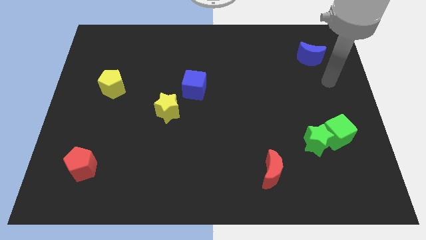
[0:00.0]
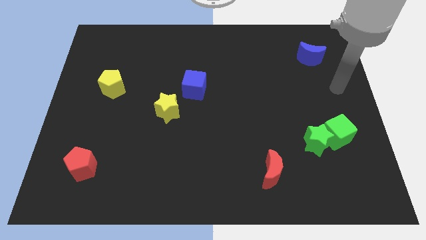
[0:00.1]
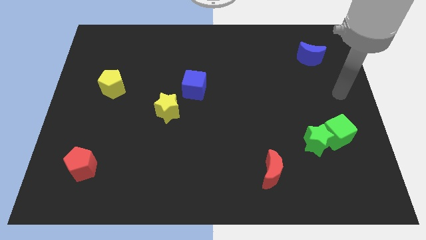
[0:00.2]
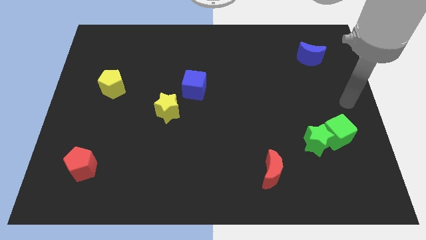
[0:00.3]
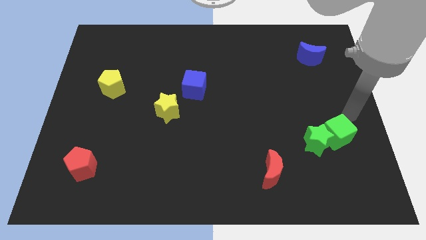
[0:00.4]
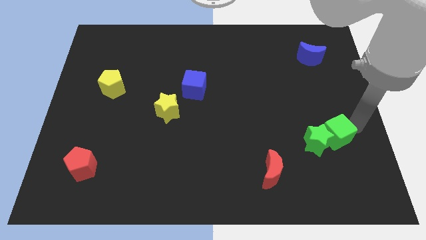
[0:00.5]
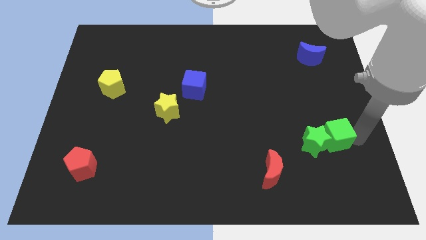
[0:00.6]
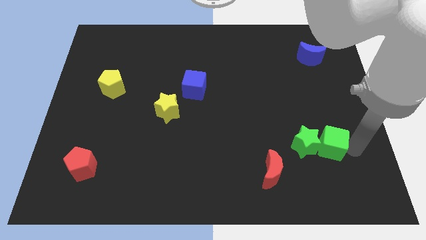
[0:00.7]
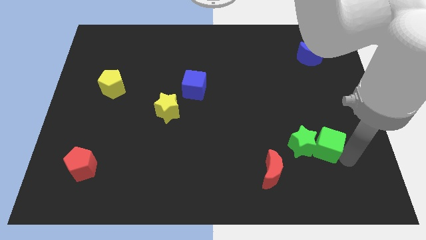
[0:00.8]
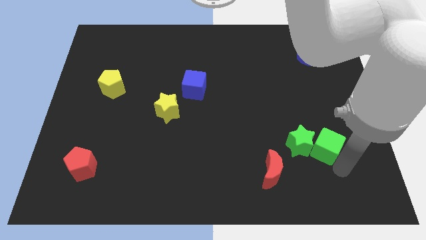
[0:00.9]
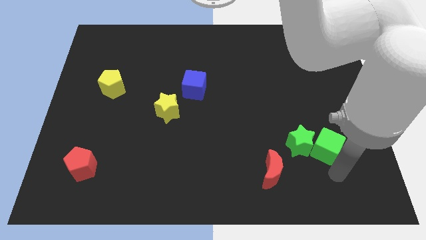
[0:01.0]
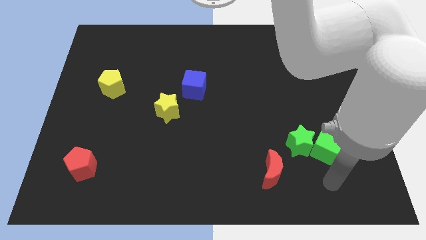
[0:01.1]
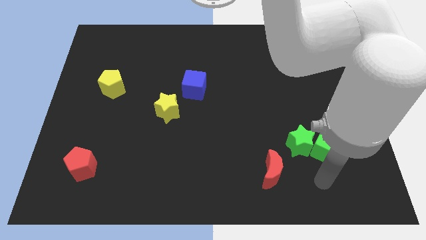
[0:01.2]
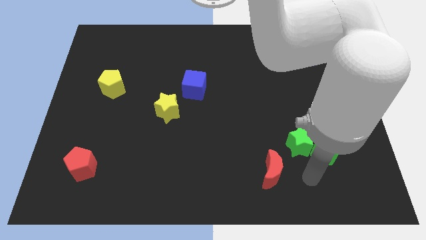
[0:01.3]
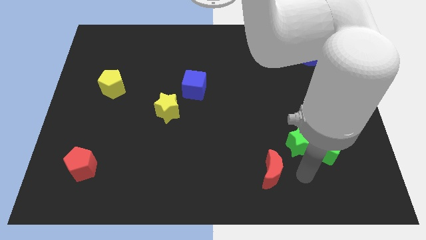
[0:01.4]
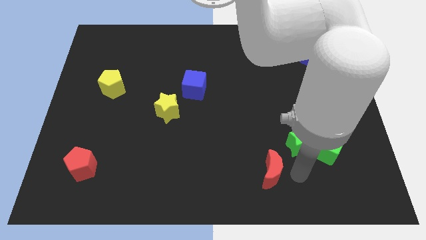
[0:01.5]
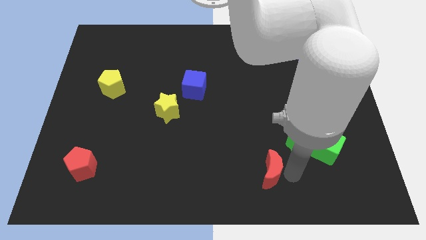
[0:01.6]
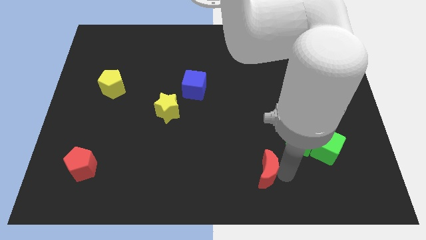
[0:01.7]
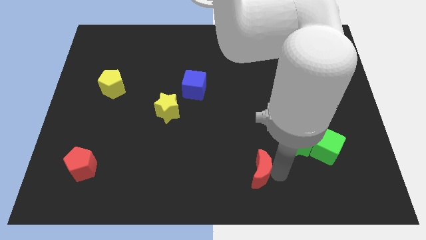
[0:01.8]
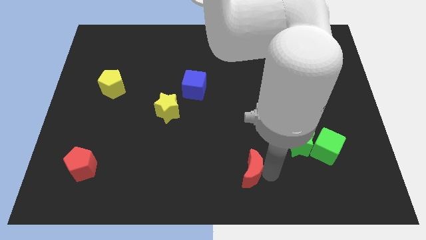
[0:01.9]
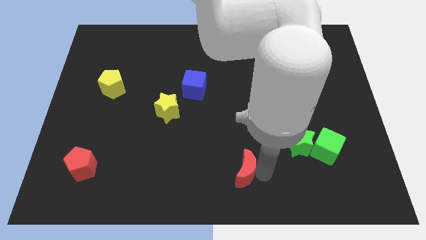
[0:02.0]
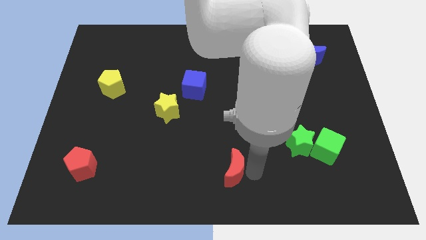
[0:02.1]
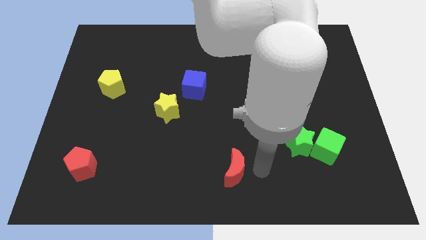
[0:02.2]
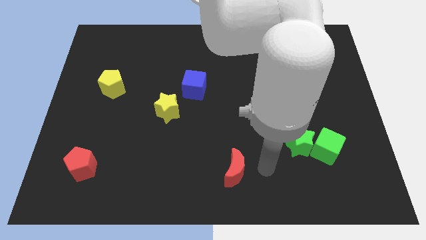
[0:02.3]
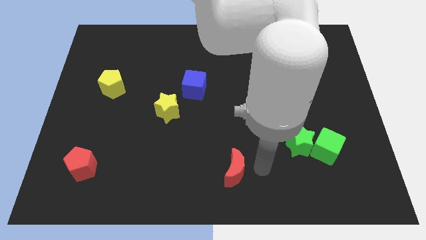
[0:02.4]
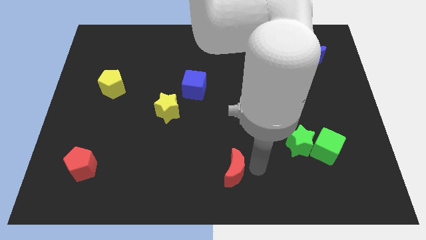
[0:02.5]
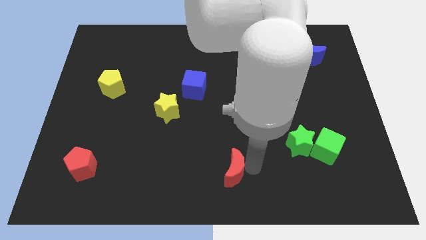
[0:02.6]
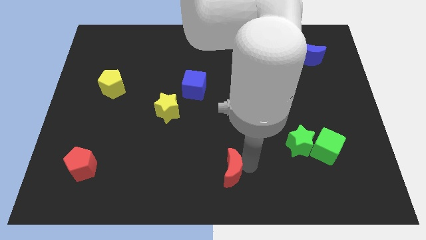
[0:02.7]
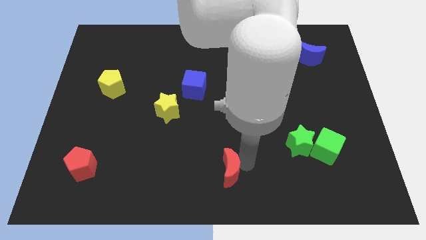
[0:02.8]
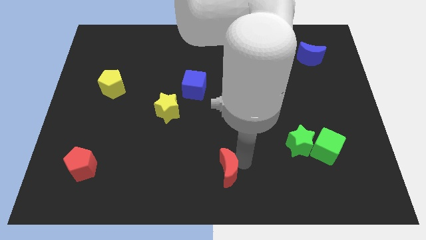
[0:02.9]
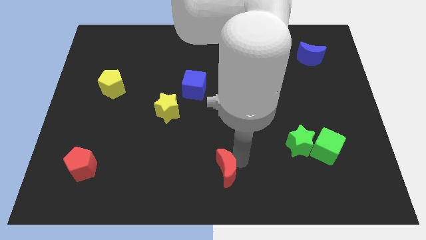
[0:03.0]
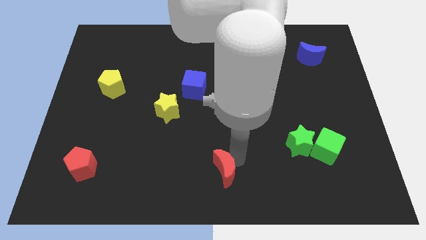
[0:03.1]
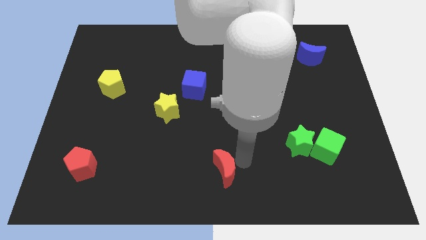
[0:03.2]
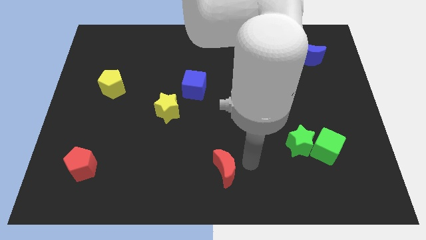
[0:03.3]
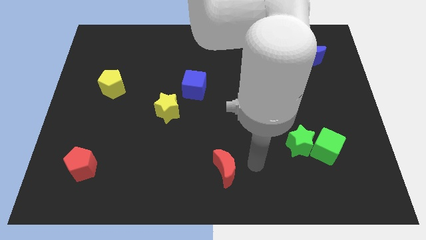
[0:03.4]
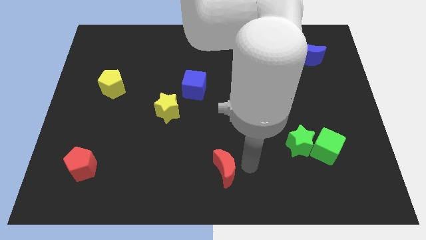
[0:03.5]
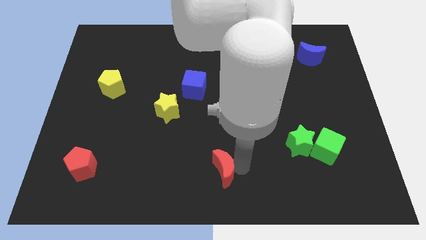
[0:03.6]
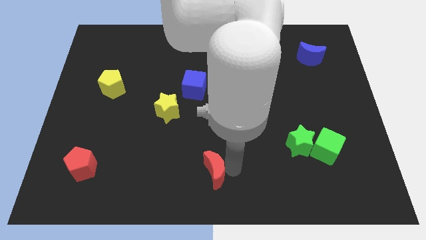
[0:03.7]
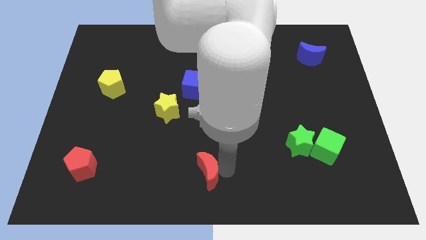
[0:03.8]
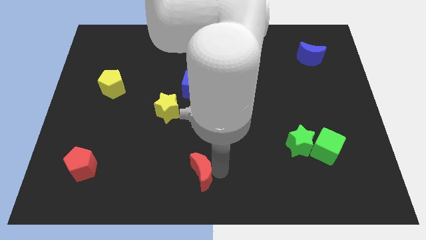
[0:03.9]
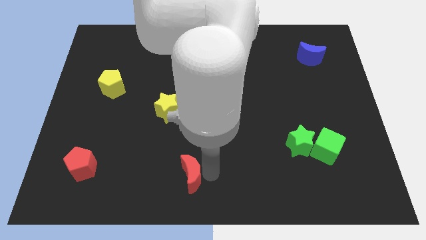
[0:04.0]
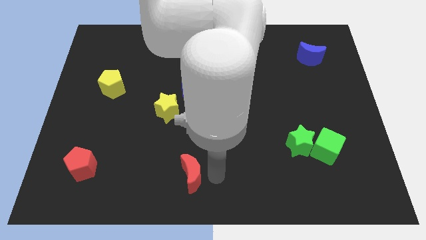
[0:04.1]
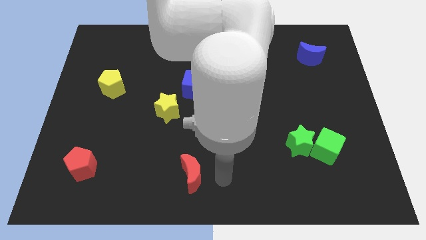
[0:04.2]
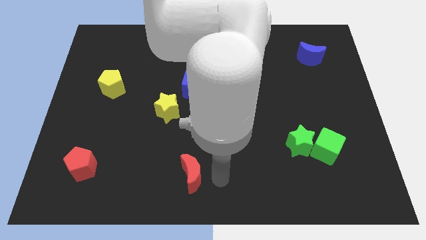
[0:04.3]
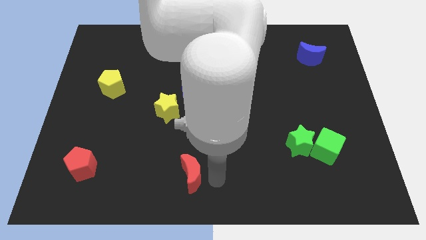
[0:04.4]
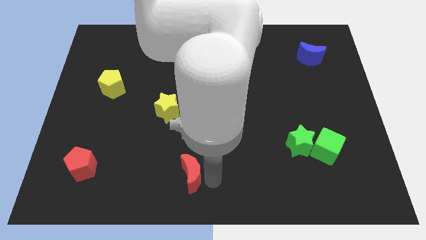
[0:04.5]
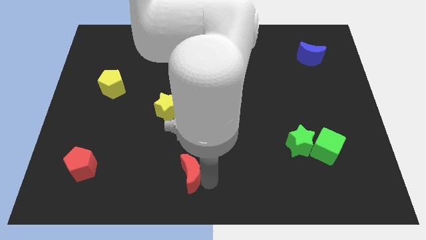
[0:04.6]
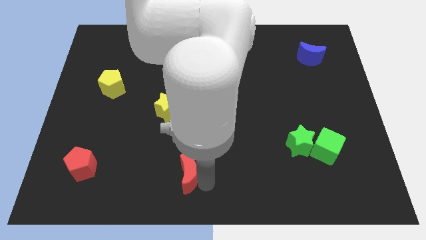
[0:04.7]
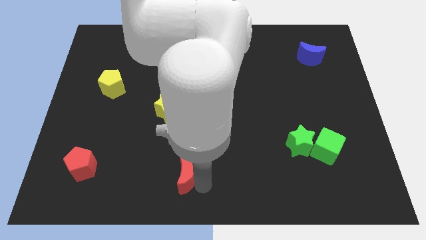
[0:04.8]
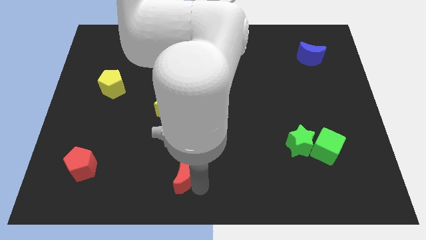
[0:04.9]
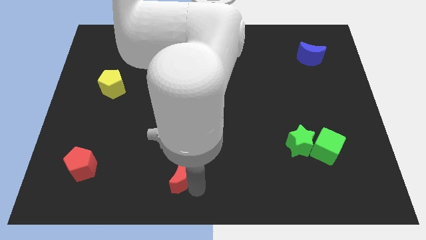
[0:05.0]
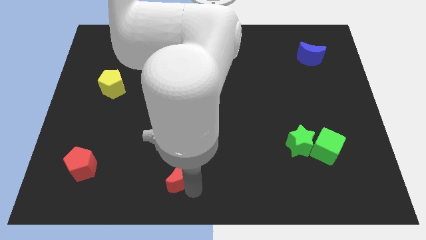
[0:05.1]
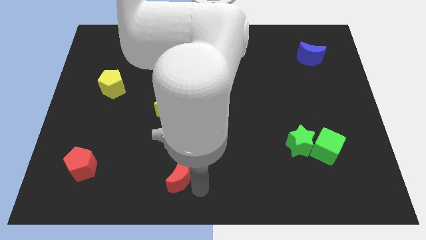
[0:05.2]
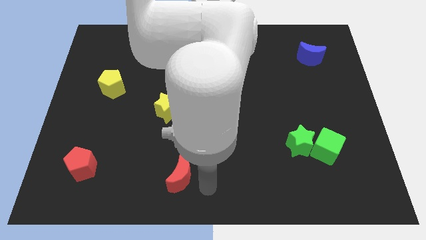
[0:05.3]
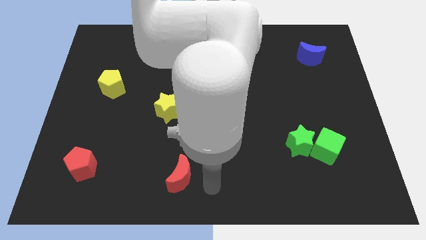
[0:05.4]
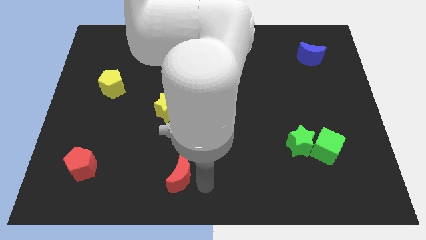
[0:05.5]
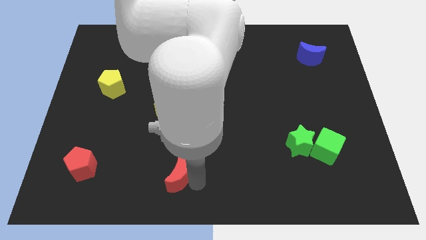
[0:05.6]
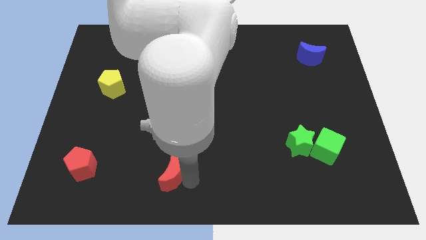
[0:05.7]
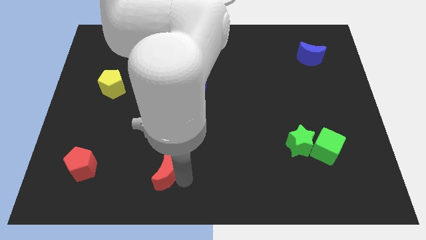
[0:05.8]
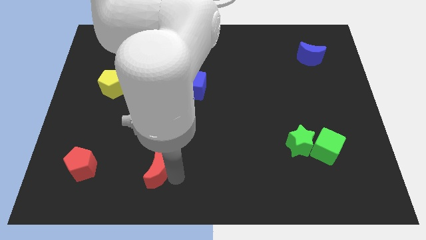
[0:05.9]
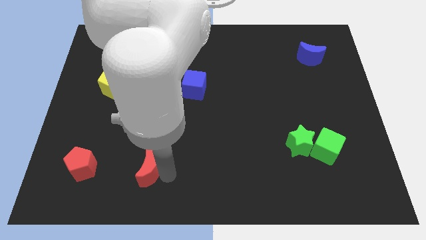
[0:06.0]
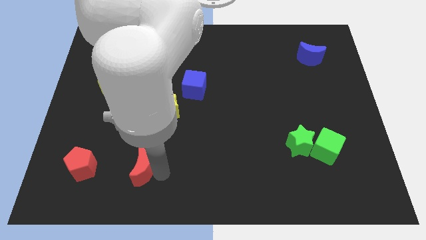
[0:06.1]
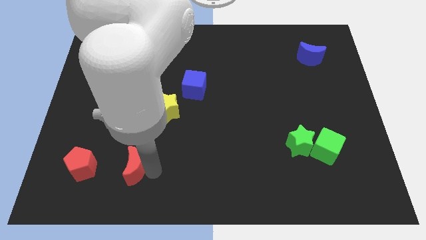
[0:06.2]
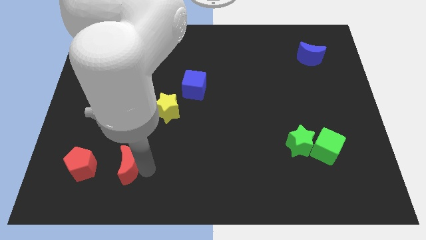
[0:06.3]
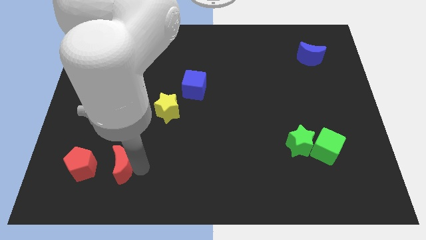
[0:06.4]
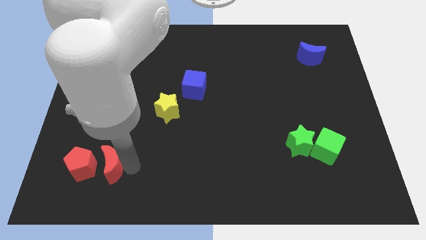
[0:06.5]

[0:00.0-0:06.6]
move the red moon towards the red pentagon

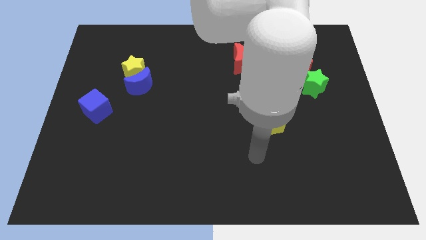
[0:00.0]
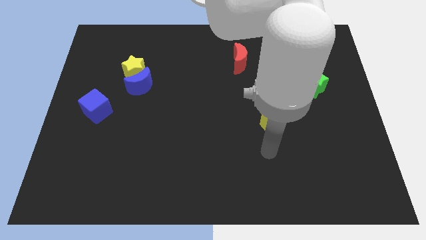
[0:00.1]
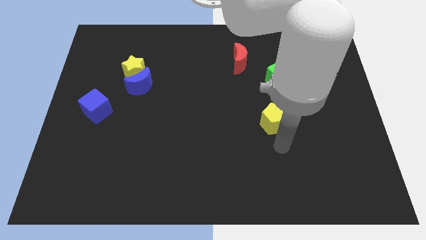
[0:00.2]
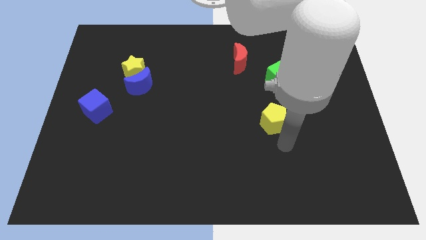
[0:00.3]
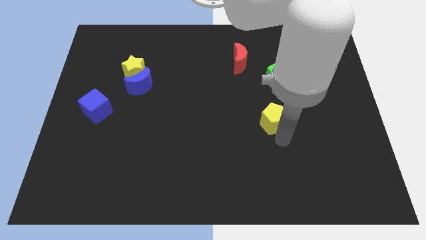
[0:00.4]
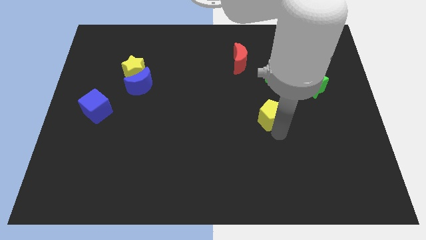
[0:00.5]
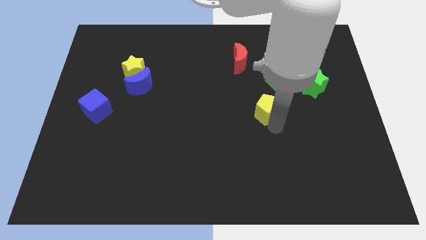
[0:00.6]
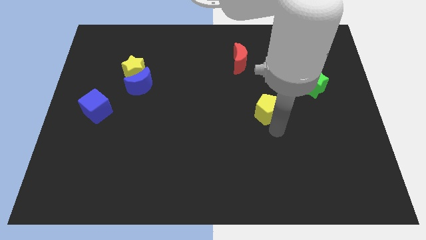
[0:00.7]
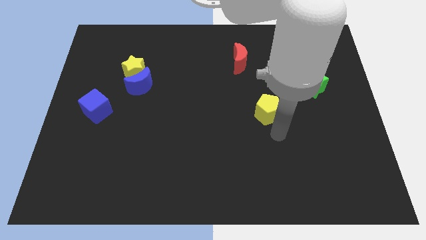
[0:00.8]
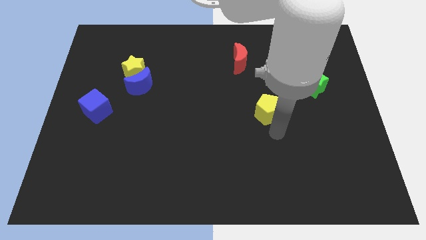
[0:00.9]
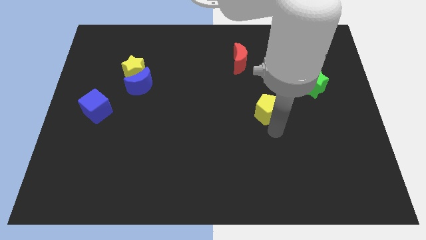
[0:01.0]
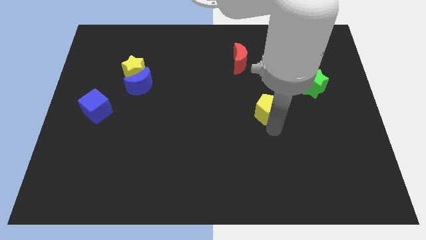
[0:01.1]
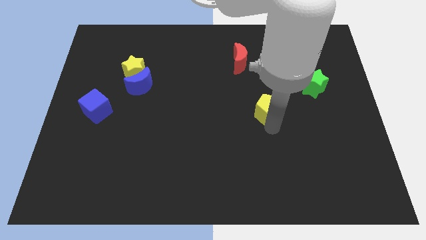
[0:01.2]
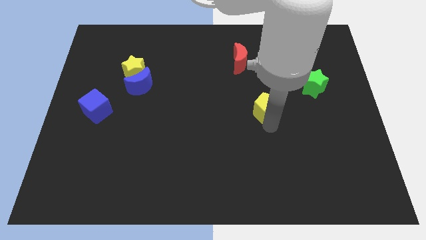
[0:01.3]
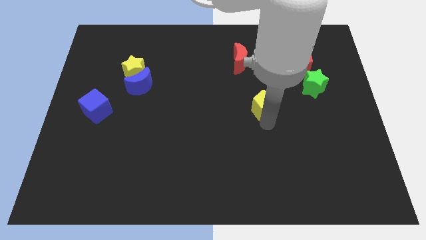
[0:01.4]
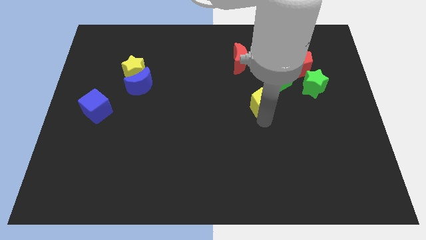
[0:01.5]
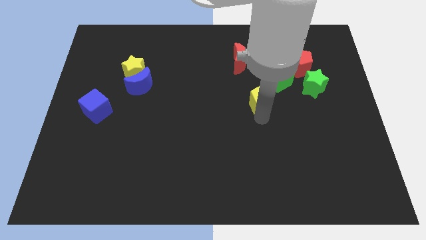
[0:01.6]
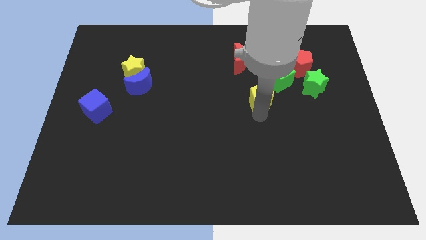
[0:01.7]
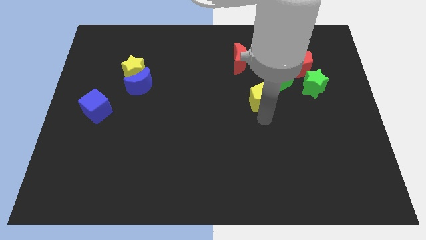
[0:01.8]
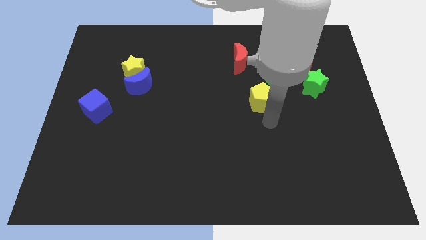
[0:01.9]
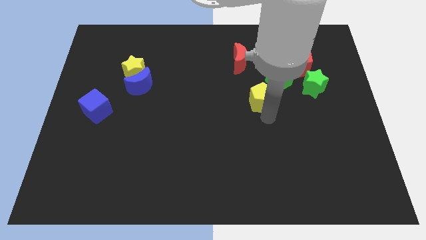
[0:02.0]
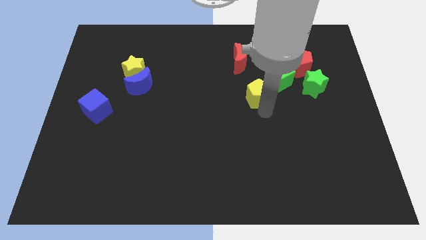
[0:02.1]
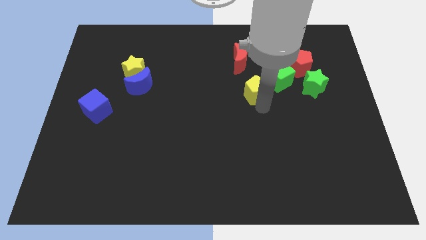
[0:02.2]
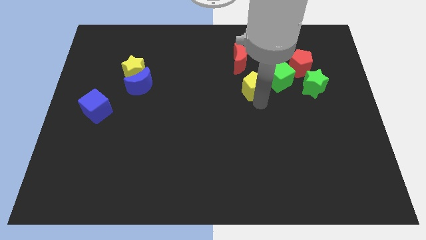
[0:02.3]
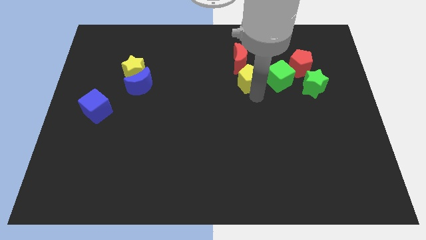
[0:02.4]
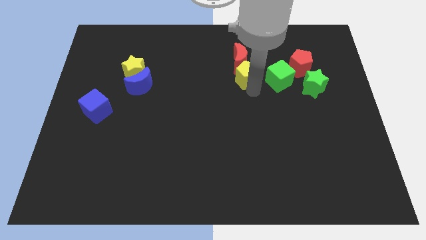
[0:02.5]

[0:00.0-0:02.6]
slide the yellow pentagon towards the red moon
